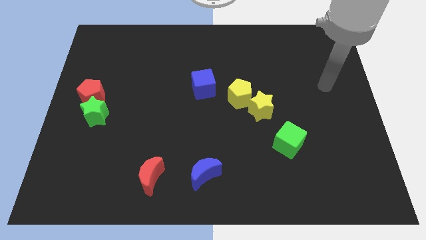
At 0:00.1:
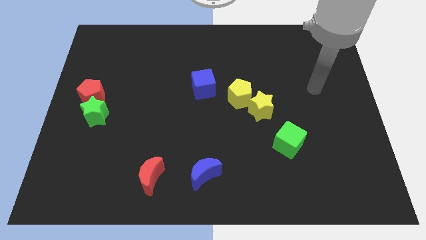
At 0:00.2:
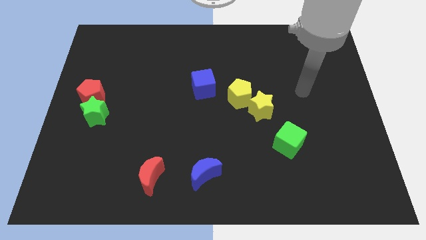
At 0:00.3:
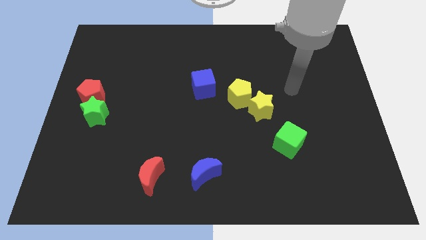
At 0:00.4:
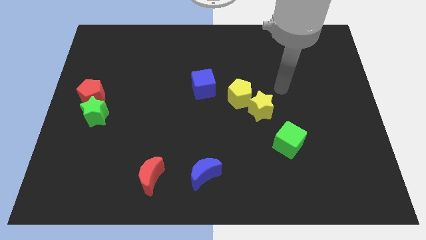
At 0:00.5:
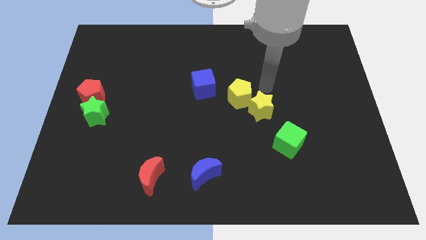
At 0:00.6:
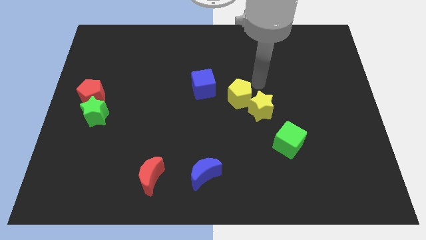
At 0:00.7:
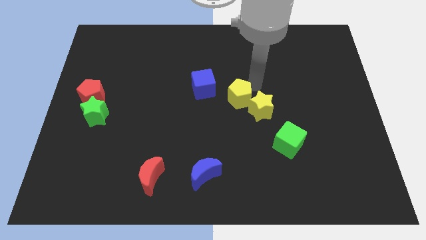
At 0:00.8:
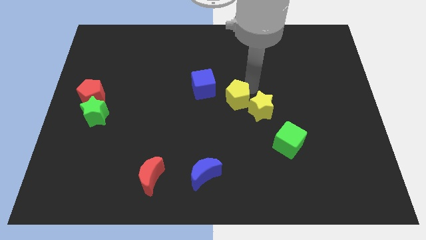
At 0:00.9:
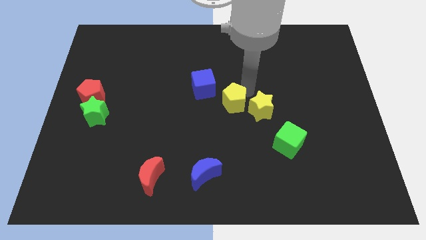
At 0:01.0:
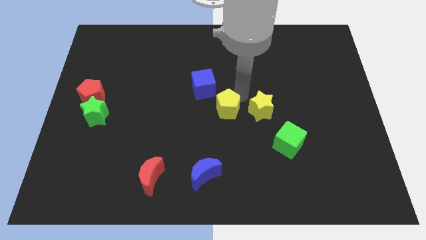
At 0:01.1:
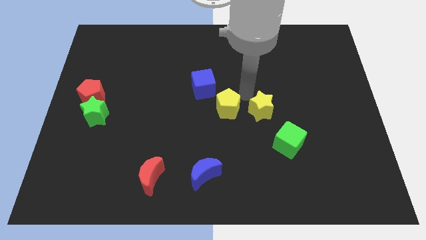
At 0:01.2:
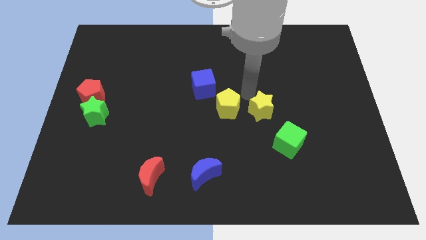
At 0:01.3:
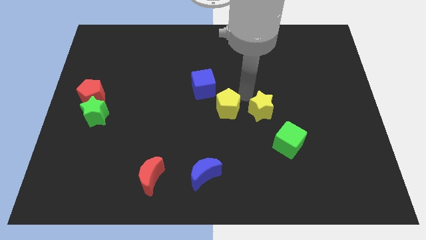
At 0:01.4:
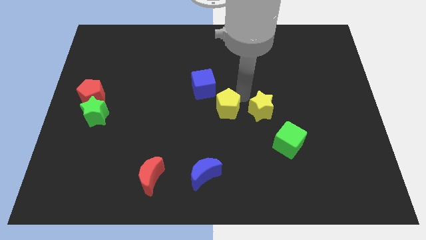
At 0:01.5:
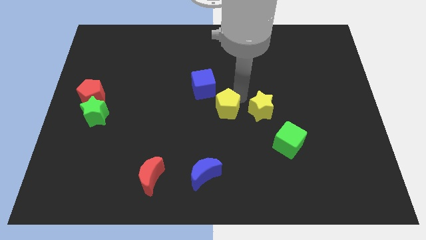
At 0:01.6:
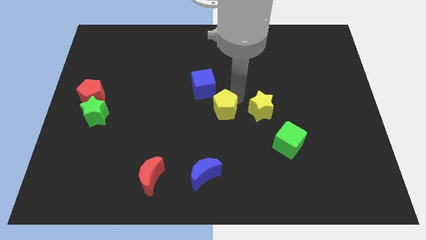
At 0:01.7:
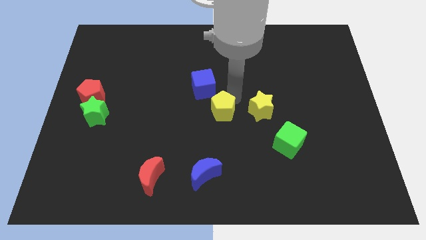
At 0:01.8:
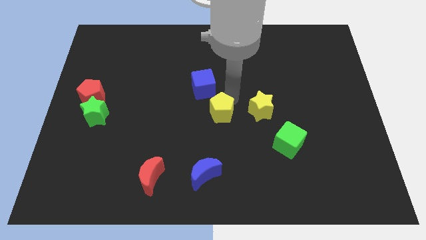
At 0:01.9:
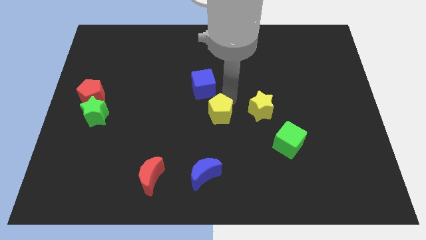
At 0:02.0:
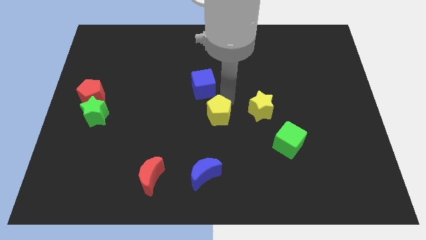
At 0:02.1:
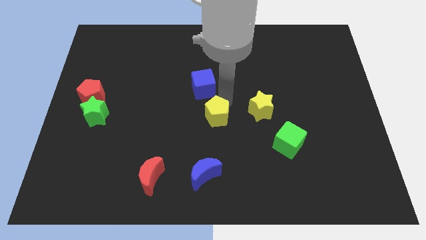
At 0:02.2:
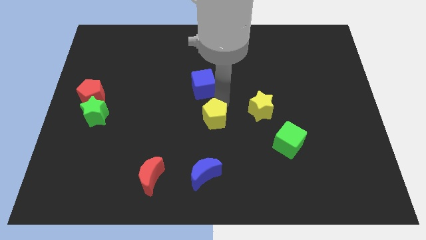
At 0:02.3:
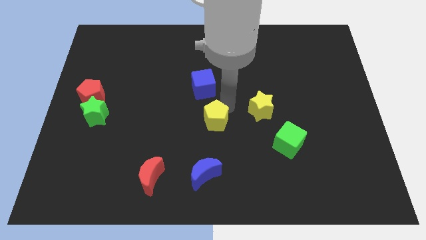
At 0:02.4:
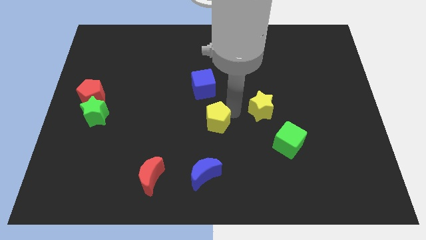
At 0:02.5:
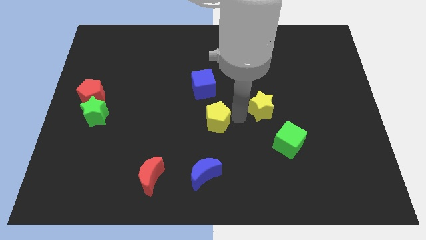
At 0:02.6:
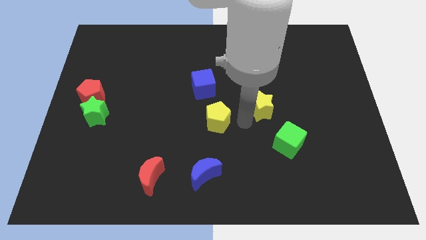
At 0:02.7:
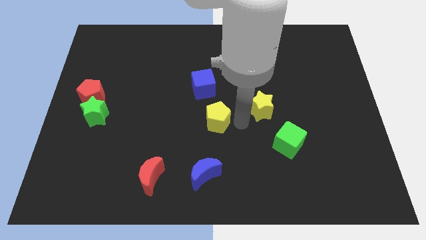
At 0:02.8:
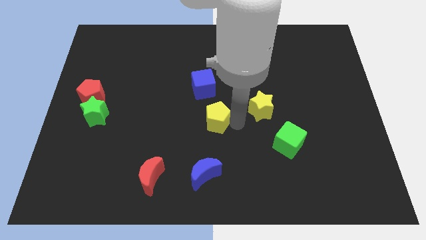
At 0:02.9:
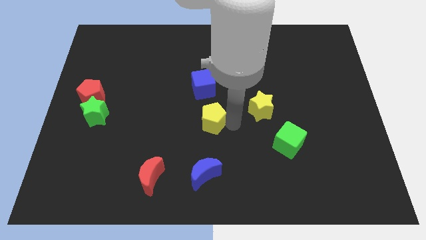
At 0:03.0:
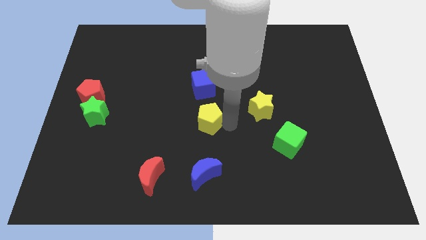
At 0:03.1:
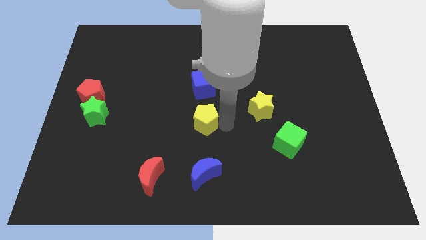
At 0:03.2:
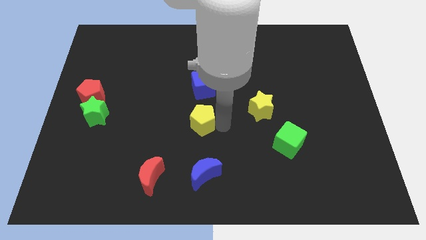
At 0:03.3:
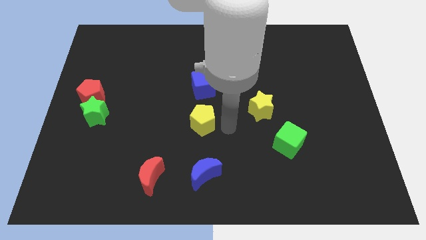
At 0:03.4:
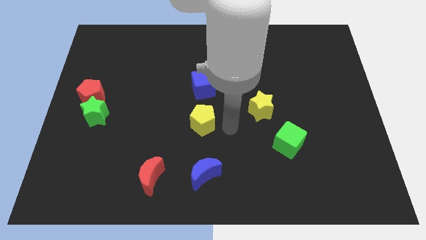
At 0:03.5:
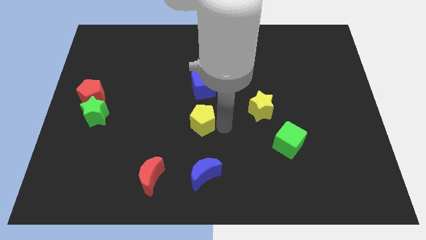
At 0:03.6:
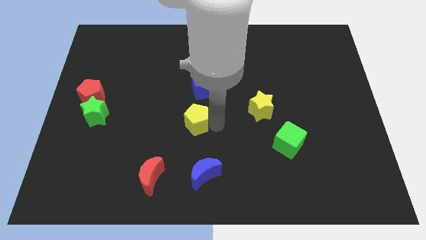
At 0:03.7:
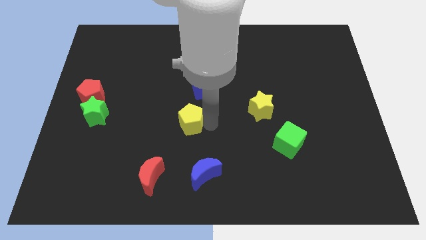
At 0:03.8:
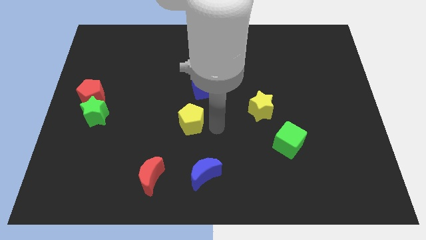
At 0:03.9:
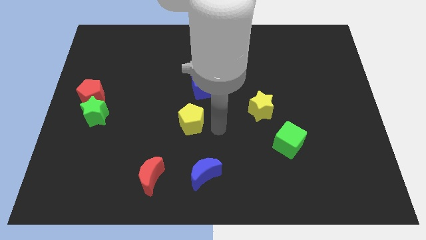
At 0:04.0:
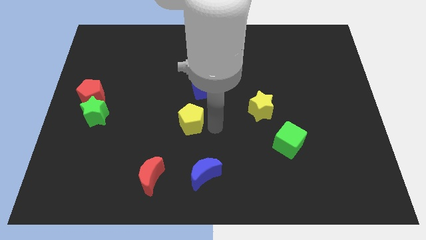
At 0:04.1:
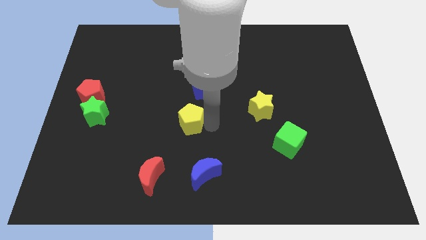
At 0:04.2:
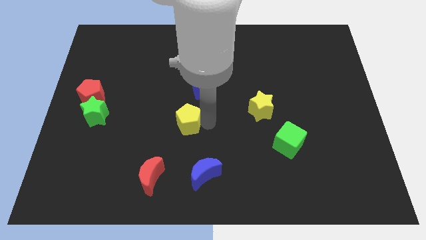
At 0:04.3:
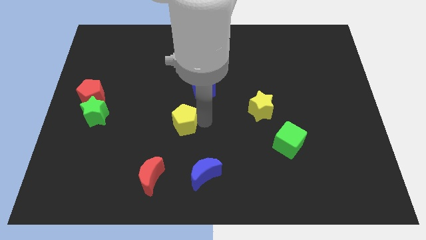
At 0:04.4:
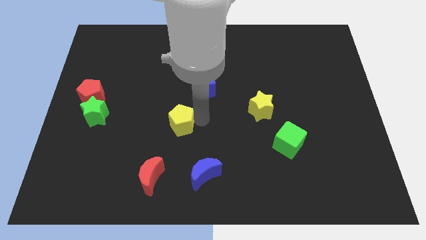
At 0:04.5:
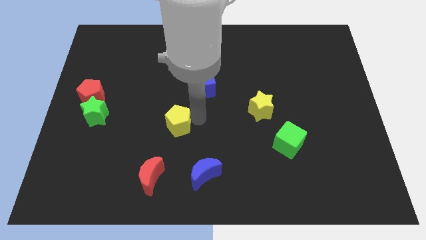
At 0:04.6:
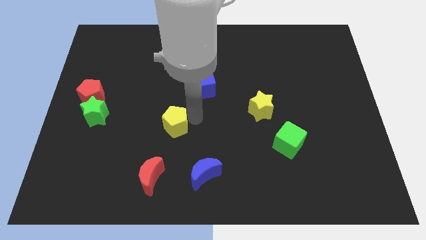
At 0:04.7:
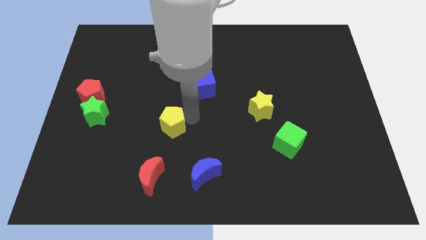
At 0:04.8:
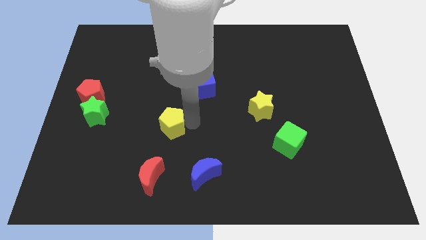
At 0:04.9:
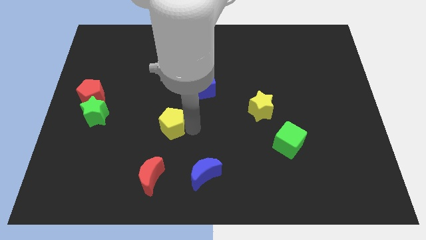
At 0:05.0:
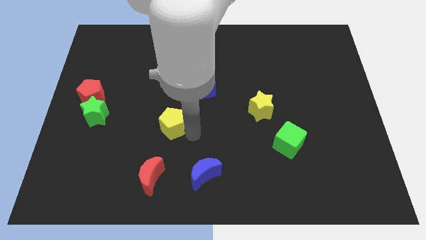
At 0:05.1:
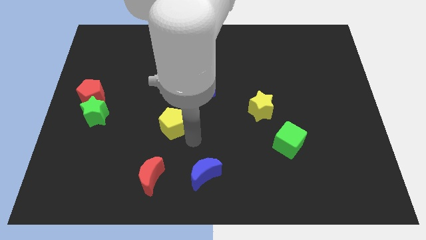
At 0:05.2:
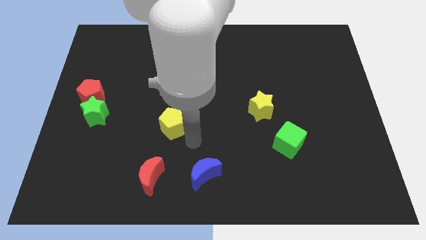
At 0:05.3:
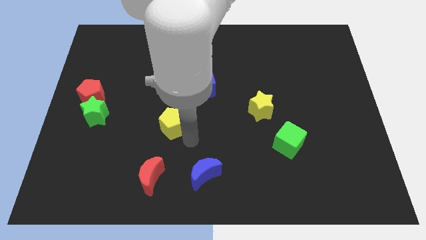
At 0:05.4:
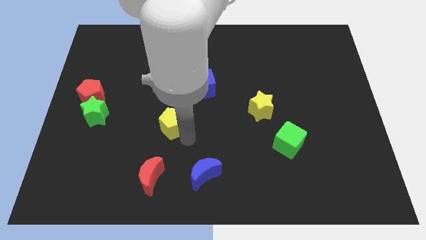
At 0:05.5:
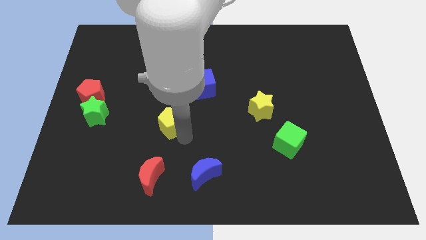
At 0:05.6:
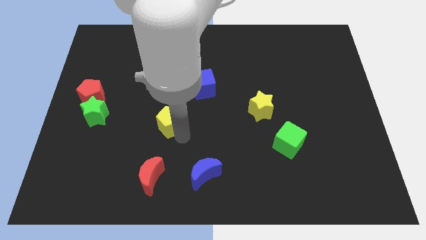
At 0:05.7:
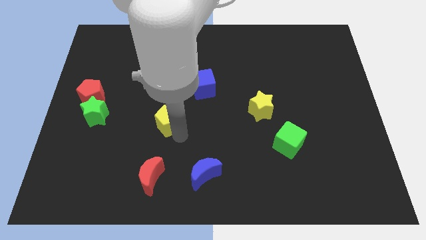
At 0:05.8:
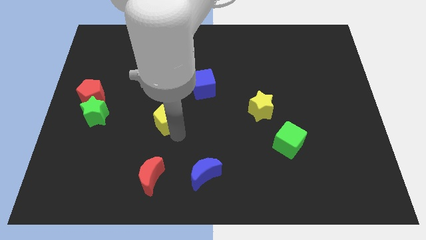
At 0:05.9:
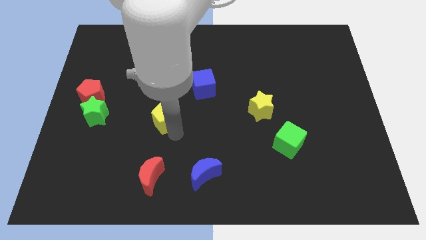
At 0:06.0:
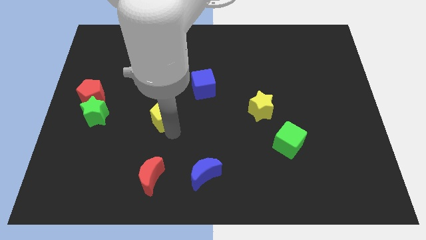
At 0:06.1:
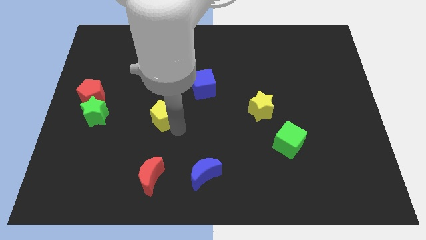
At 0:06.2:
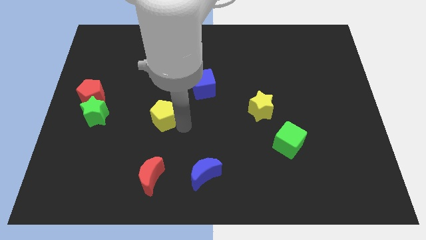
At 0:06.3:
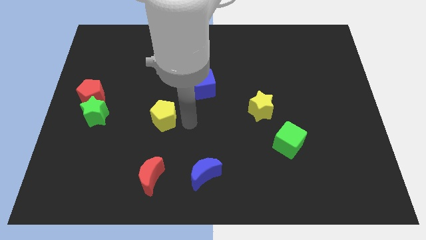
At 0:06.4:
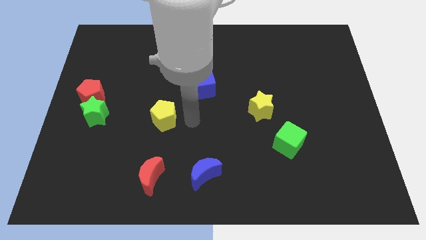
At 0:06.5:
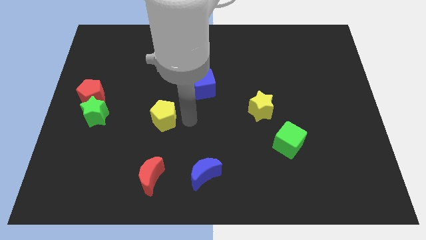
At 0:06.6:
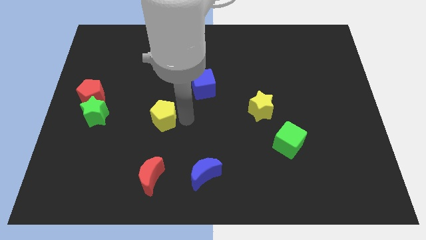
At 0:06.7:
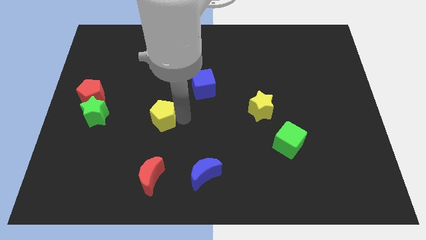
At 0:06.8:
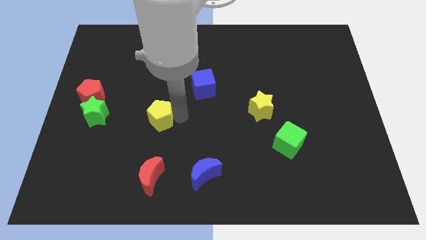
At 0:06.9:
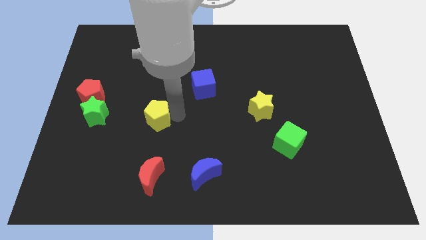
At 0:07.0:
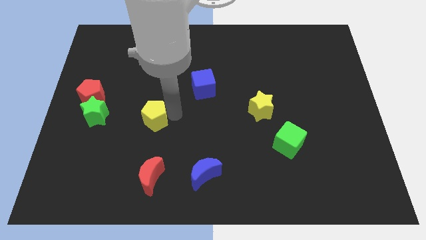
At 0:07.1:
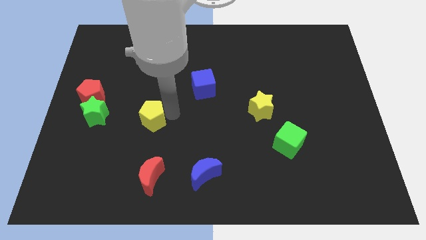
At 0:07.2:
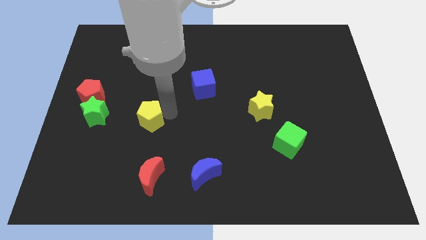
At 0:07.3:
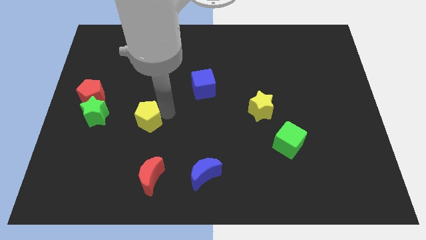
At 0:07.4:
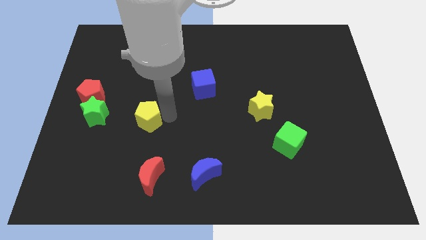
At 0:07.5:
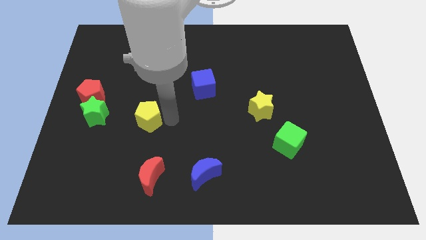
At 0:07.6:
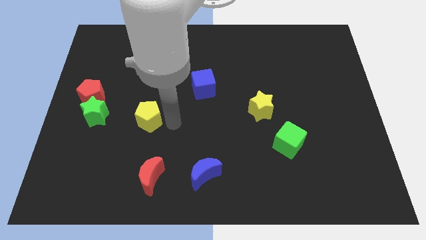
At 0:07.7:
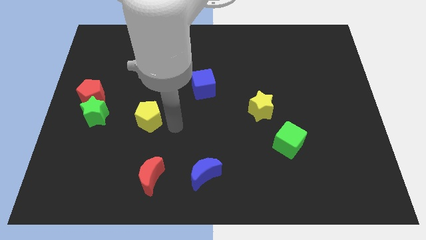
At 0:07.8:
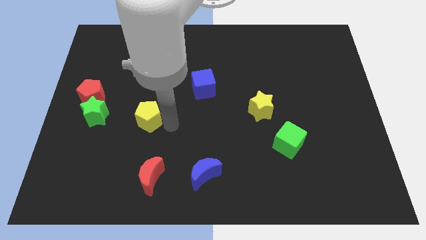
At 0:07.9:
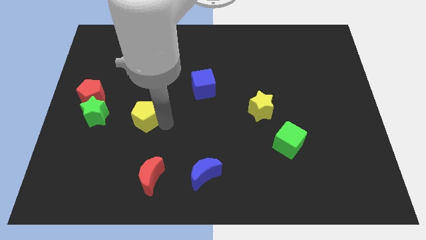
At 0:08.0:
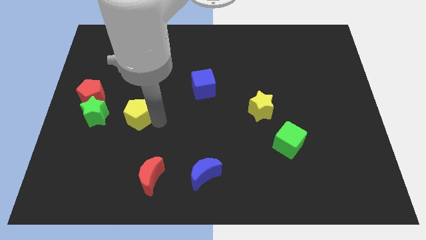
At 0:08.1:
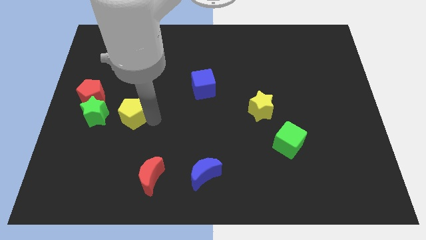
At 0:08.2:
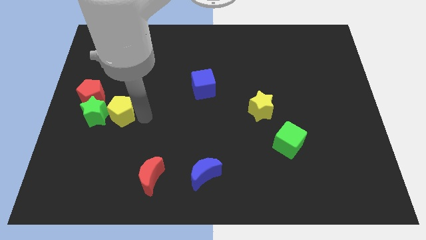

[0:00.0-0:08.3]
push the yellow pentagon close to the green star
